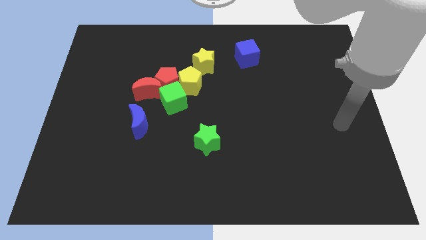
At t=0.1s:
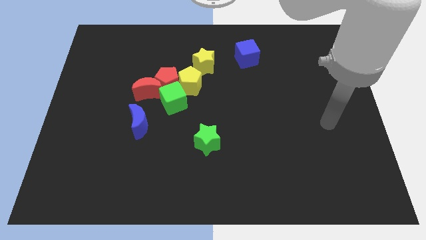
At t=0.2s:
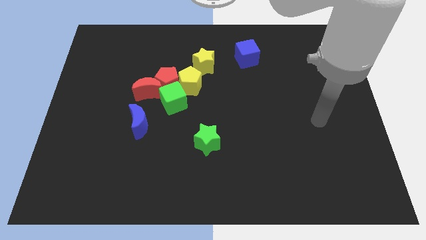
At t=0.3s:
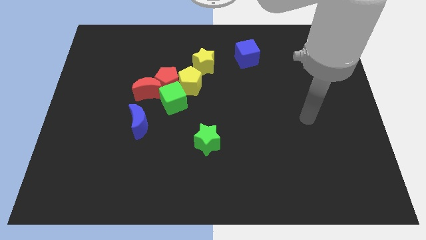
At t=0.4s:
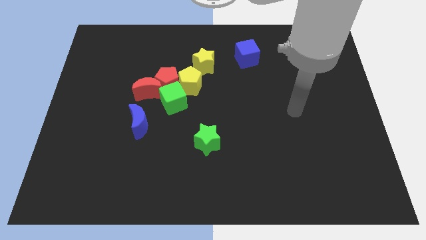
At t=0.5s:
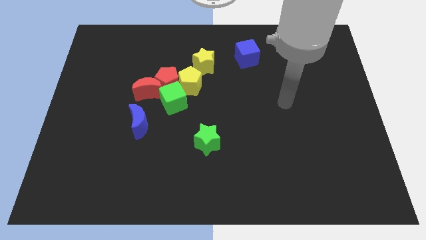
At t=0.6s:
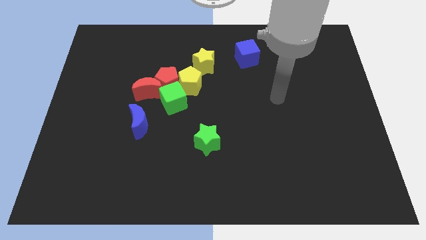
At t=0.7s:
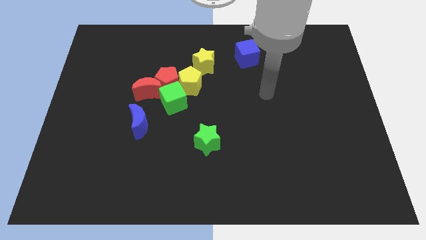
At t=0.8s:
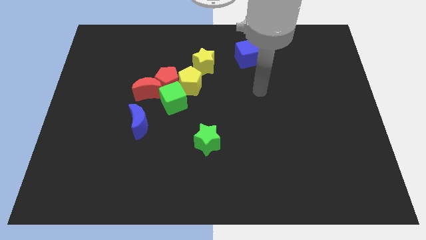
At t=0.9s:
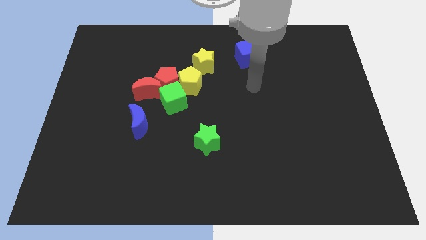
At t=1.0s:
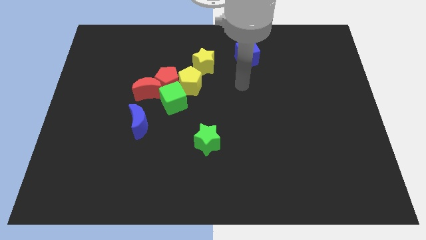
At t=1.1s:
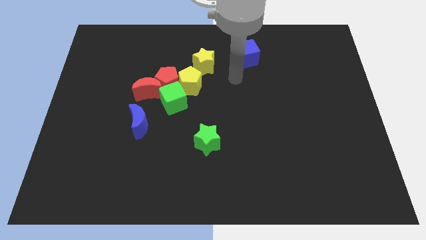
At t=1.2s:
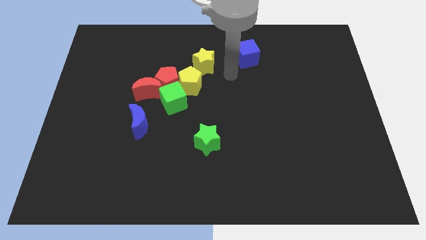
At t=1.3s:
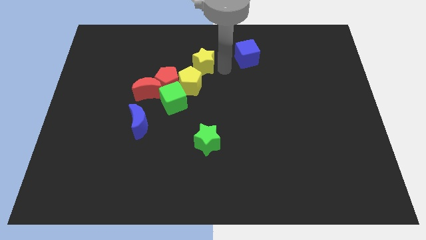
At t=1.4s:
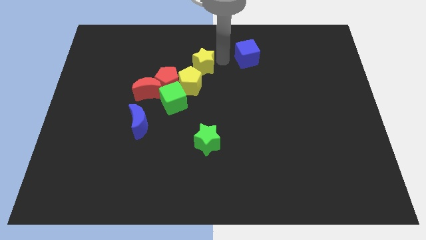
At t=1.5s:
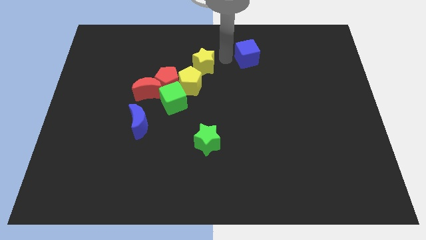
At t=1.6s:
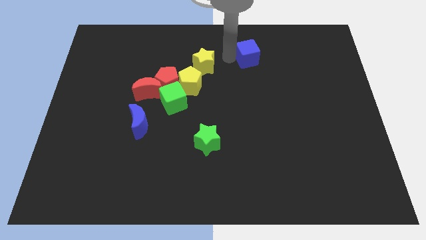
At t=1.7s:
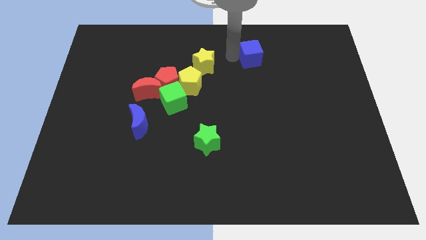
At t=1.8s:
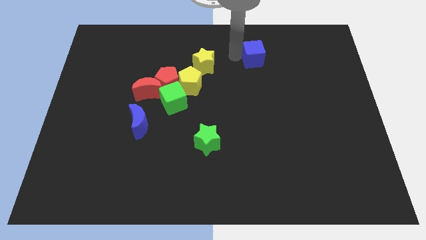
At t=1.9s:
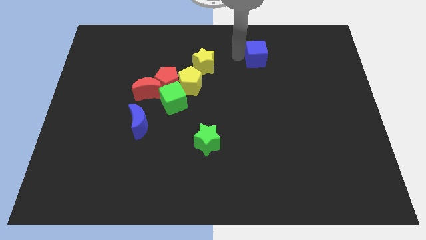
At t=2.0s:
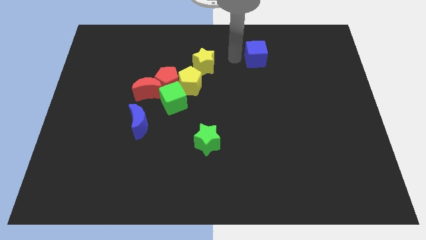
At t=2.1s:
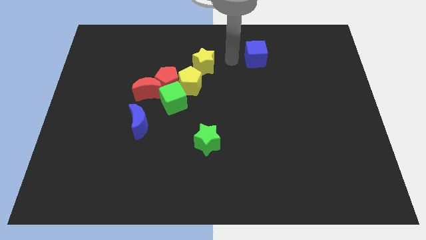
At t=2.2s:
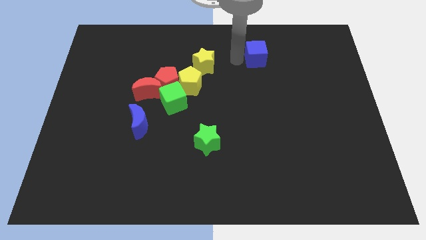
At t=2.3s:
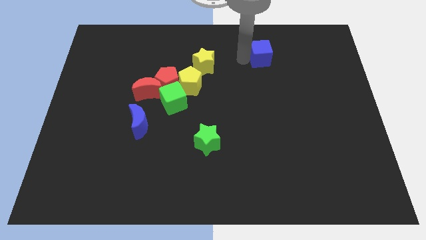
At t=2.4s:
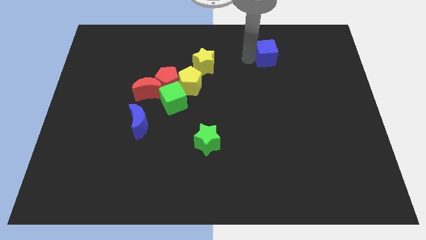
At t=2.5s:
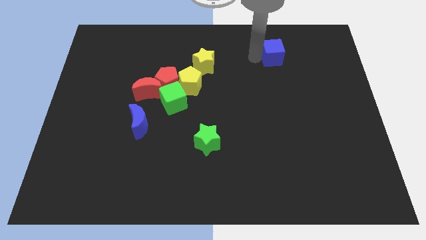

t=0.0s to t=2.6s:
slightly move the blue cube right

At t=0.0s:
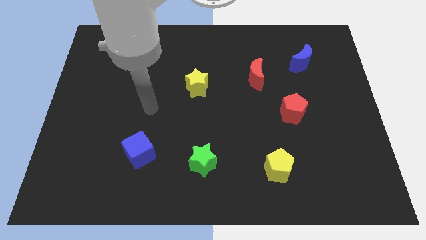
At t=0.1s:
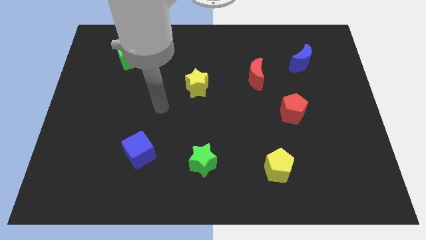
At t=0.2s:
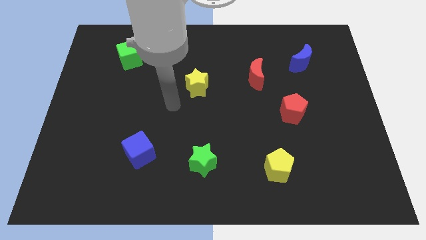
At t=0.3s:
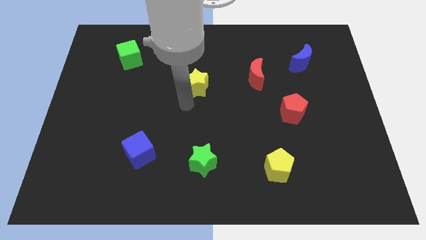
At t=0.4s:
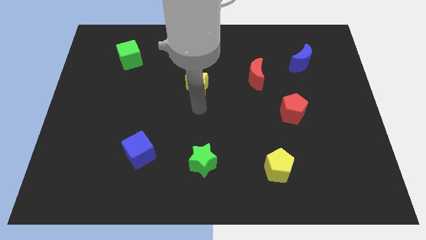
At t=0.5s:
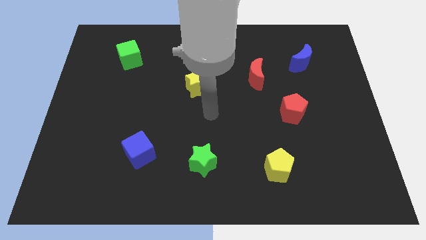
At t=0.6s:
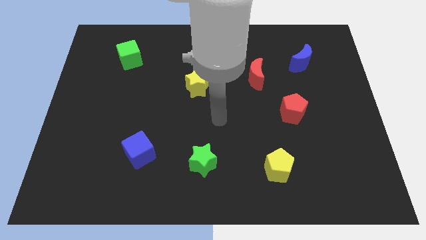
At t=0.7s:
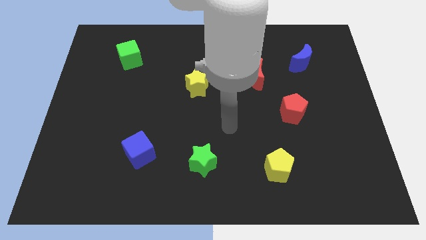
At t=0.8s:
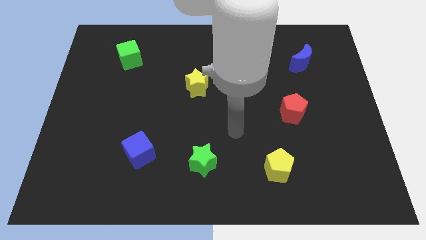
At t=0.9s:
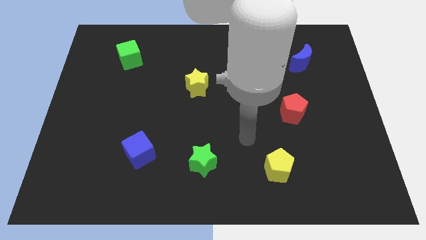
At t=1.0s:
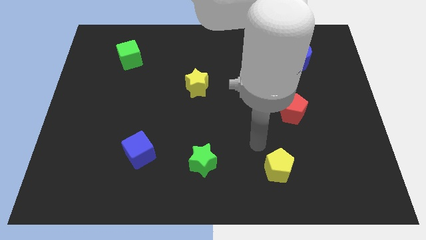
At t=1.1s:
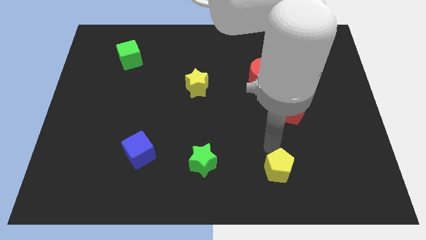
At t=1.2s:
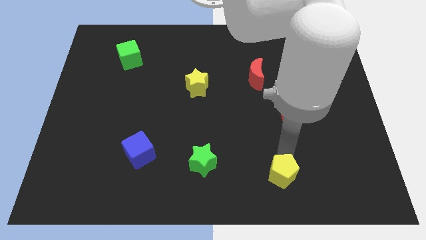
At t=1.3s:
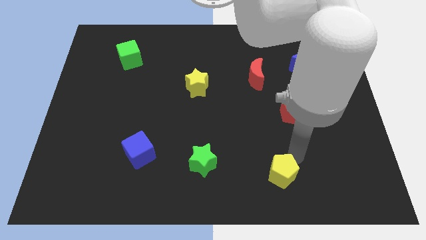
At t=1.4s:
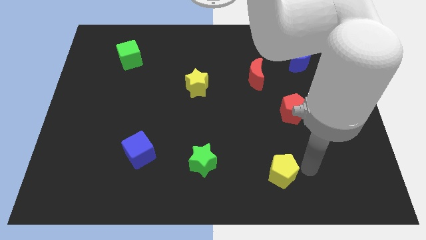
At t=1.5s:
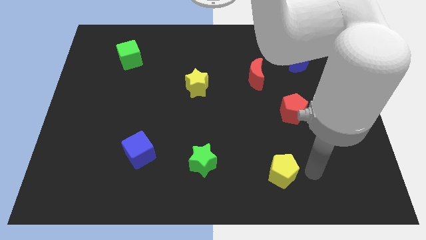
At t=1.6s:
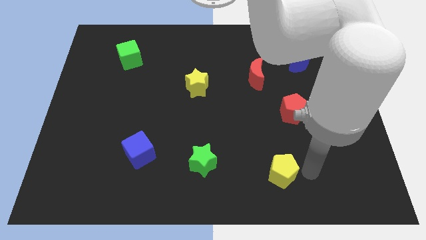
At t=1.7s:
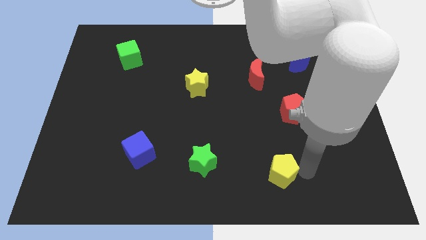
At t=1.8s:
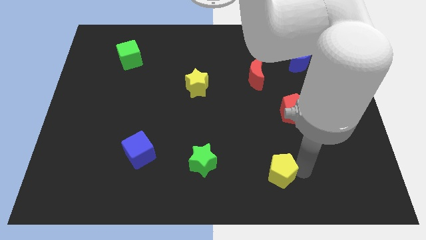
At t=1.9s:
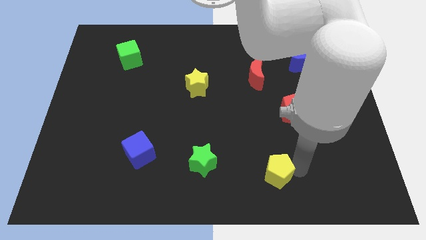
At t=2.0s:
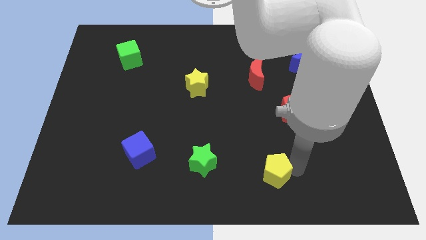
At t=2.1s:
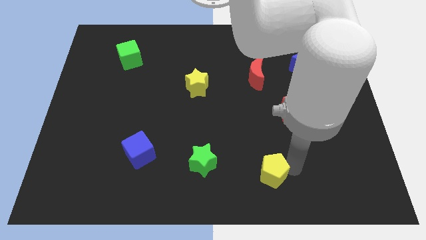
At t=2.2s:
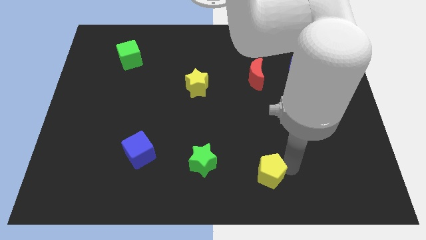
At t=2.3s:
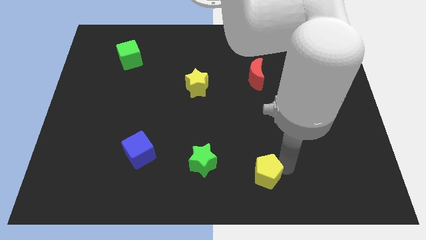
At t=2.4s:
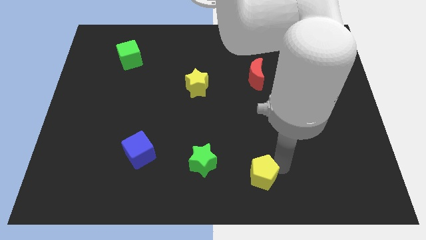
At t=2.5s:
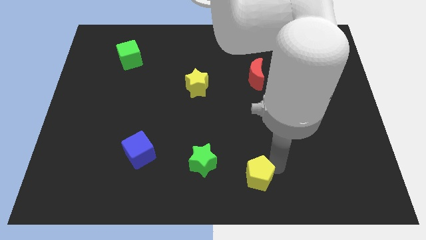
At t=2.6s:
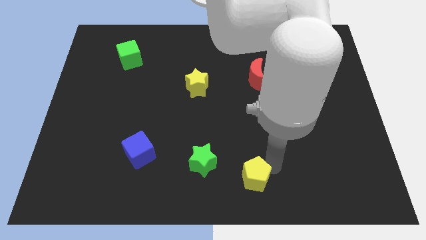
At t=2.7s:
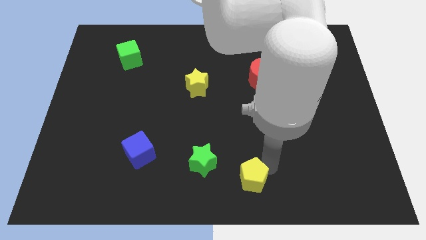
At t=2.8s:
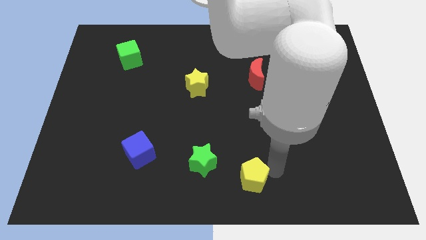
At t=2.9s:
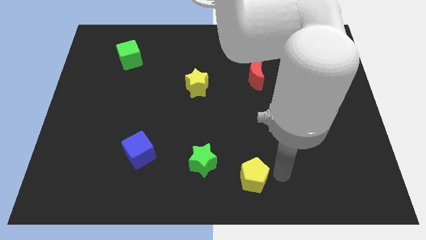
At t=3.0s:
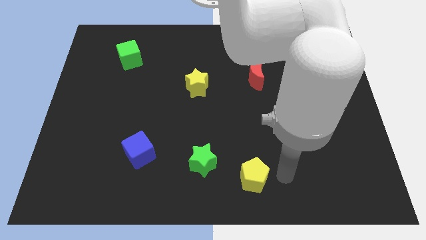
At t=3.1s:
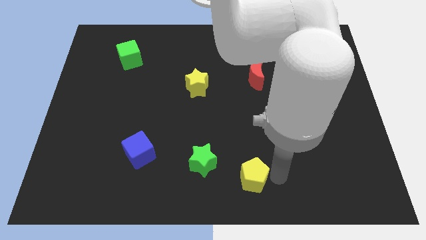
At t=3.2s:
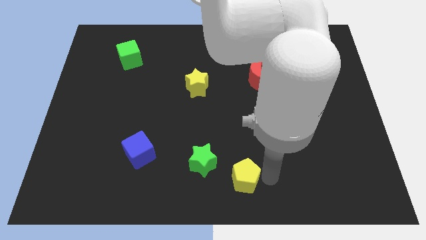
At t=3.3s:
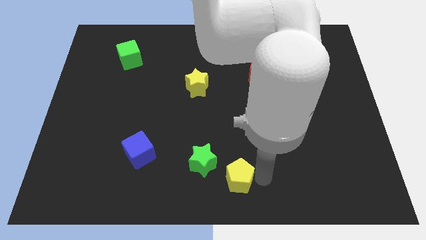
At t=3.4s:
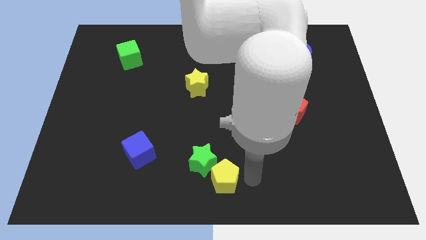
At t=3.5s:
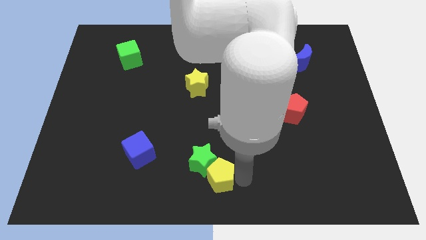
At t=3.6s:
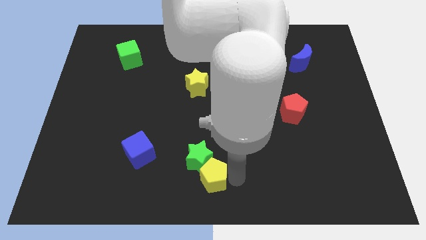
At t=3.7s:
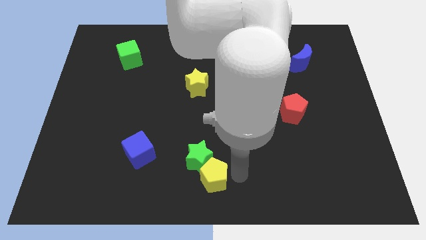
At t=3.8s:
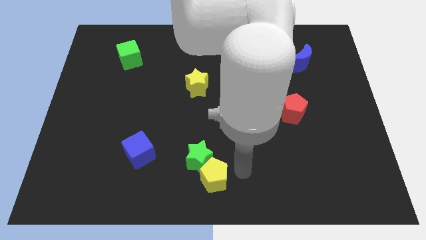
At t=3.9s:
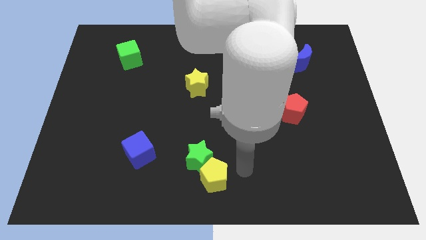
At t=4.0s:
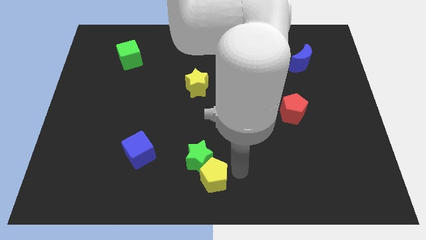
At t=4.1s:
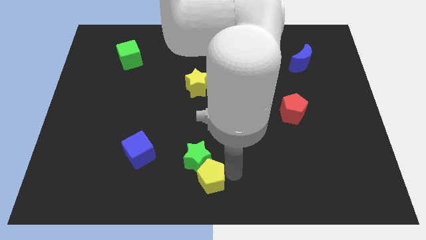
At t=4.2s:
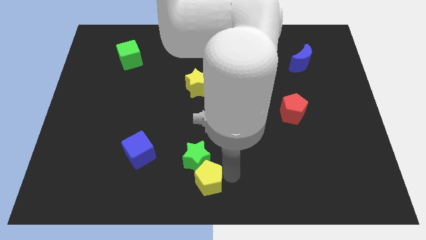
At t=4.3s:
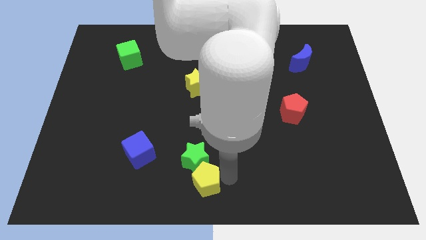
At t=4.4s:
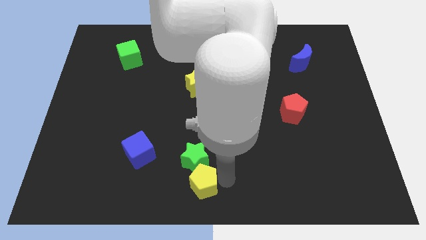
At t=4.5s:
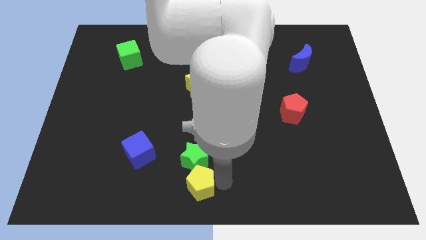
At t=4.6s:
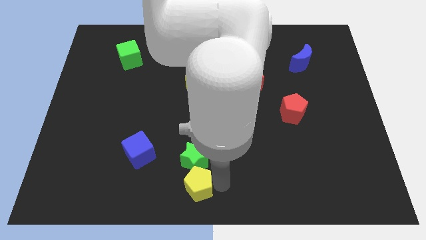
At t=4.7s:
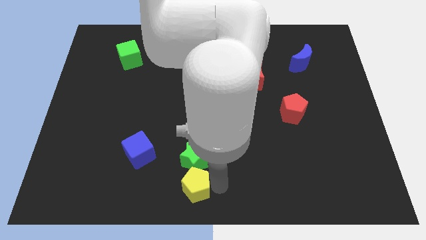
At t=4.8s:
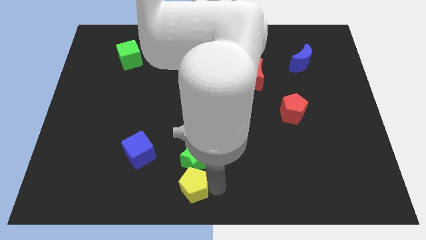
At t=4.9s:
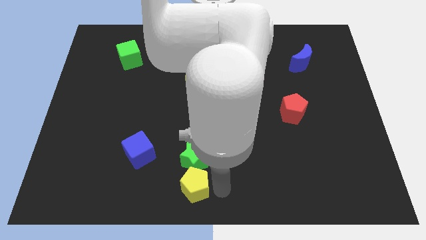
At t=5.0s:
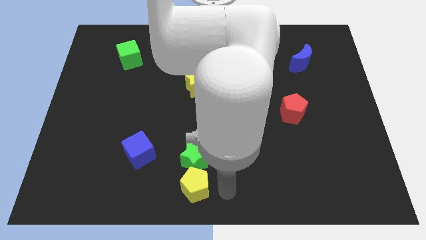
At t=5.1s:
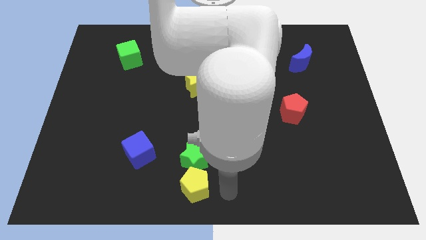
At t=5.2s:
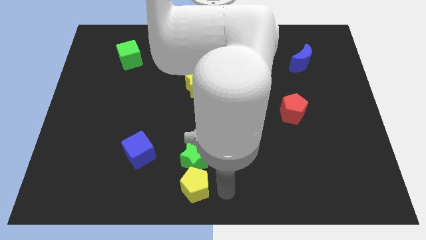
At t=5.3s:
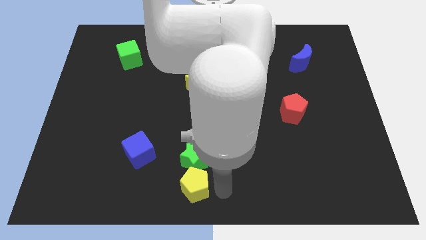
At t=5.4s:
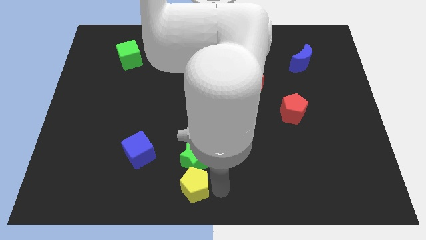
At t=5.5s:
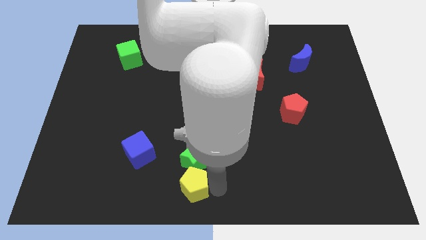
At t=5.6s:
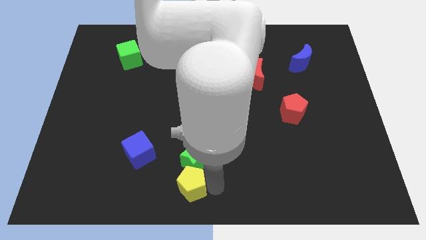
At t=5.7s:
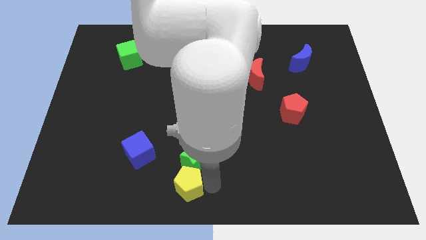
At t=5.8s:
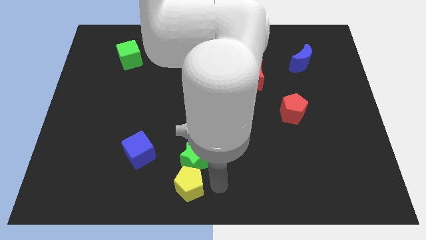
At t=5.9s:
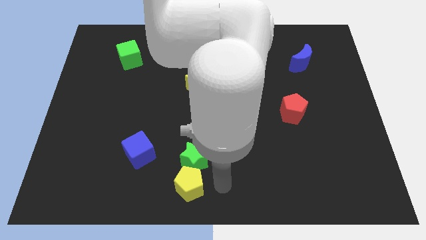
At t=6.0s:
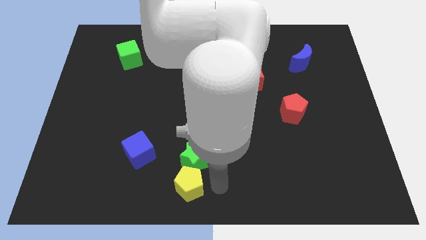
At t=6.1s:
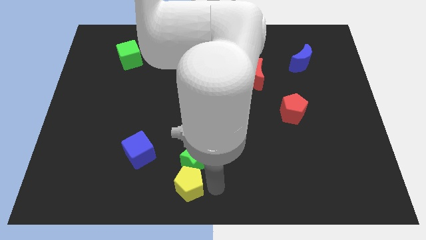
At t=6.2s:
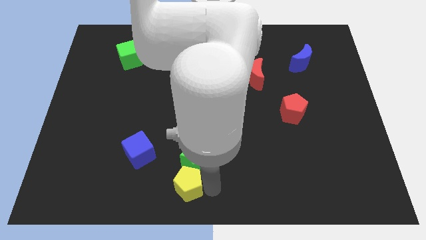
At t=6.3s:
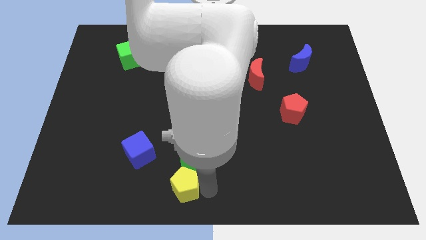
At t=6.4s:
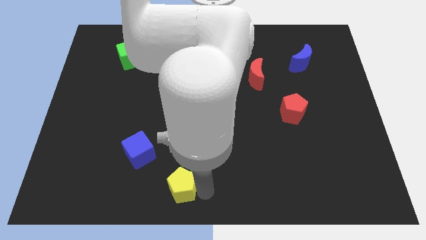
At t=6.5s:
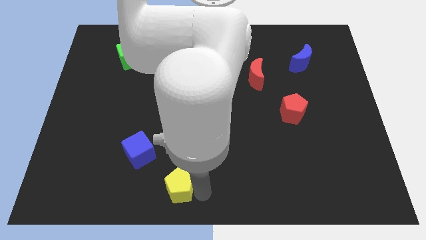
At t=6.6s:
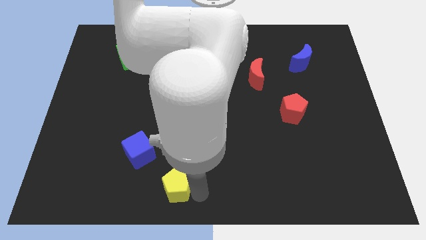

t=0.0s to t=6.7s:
move the yellow pentagon left
